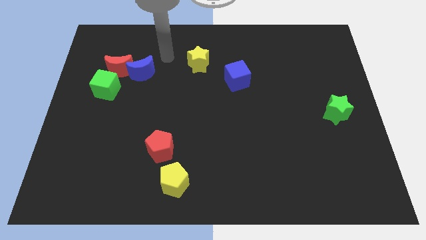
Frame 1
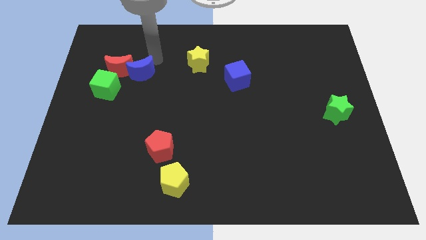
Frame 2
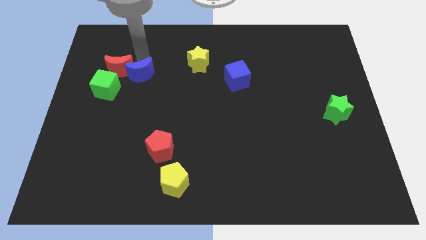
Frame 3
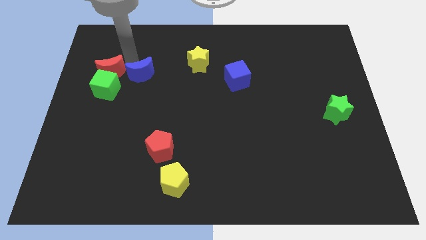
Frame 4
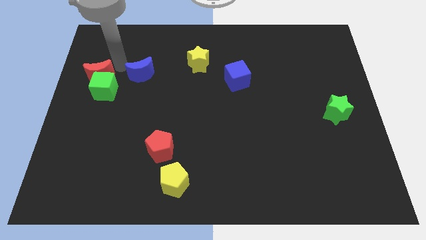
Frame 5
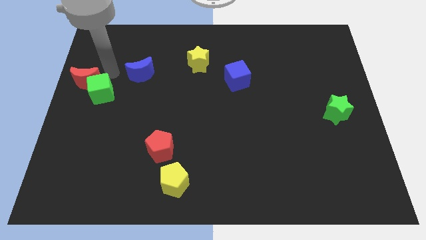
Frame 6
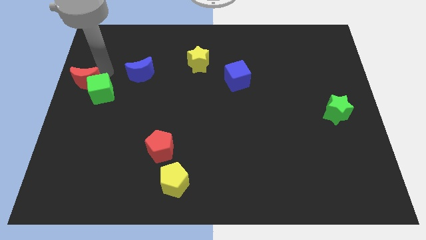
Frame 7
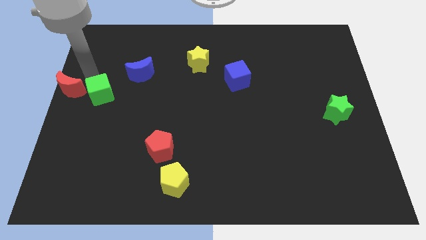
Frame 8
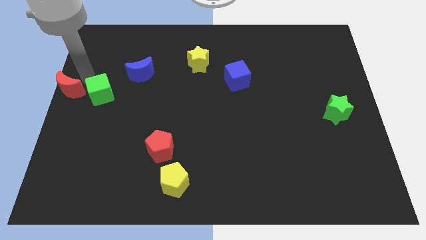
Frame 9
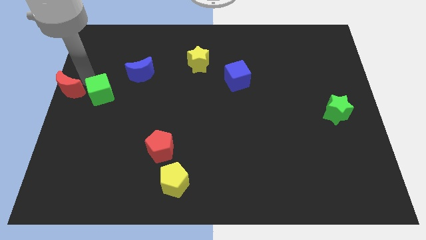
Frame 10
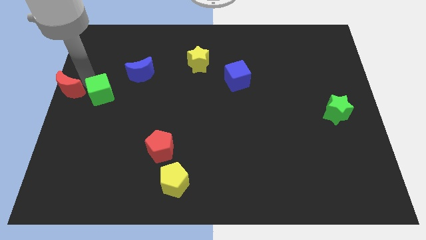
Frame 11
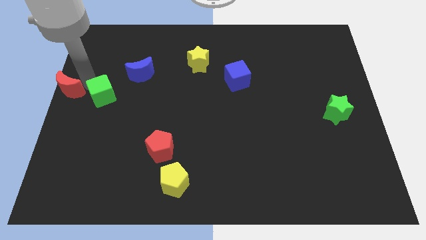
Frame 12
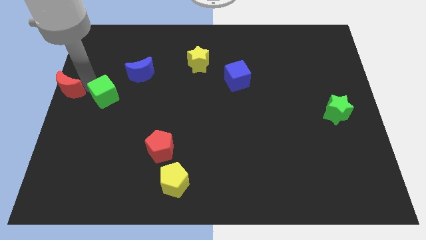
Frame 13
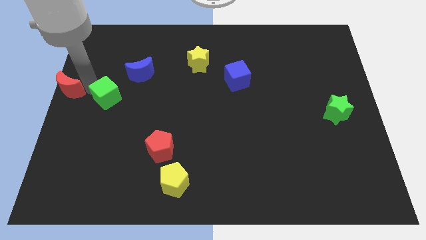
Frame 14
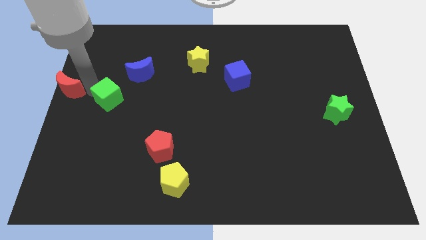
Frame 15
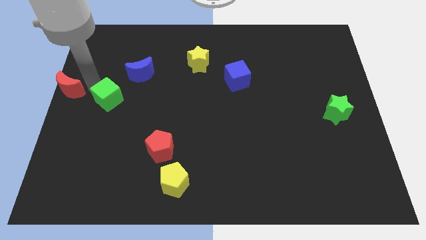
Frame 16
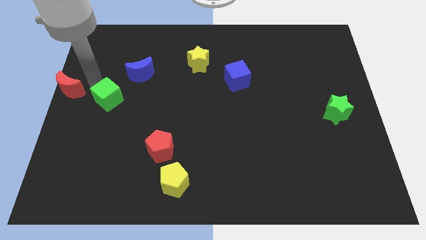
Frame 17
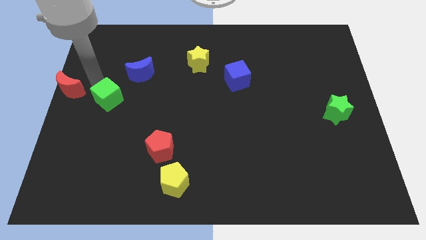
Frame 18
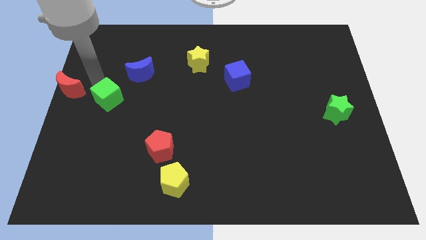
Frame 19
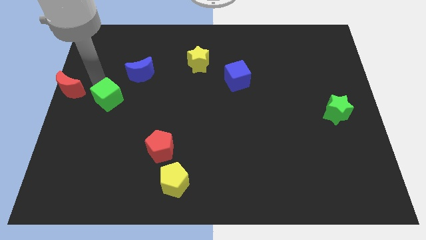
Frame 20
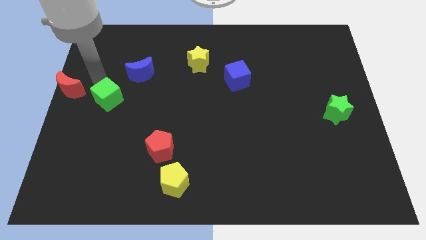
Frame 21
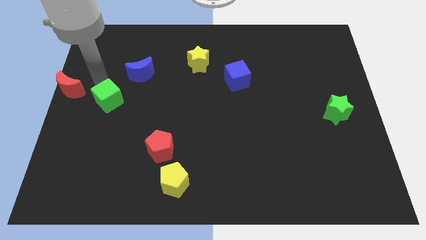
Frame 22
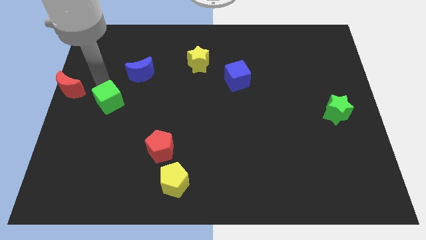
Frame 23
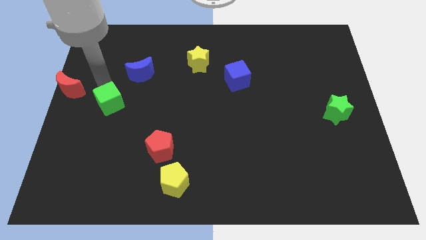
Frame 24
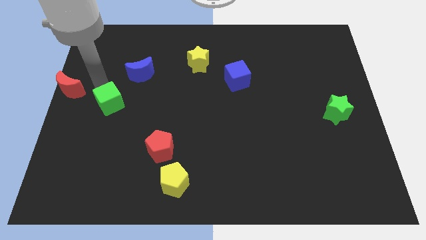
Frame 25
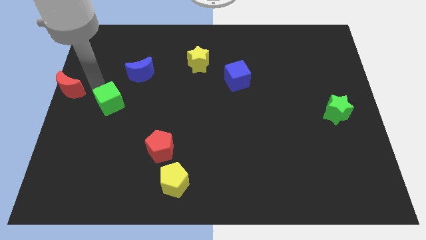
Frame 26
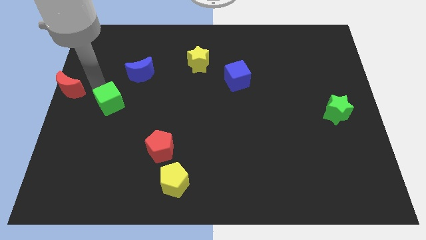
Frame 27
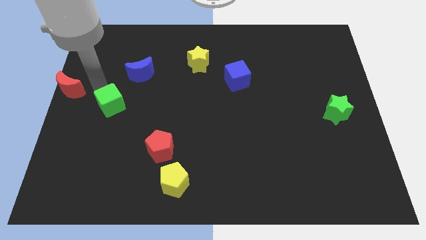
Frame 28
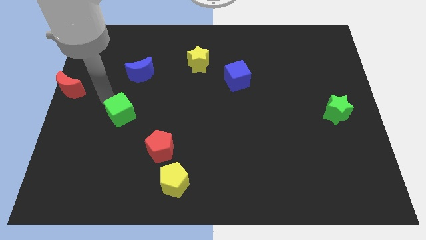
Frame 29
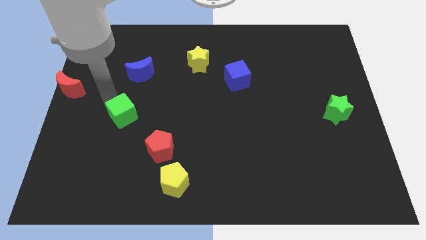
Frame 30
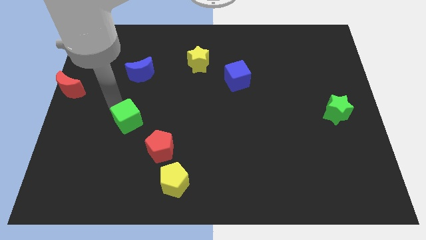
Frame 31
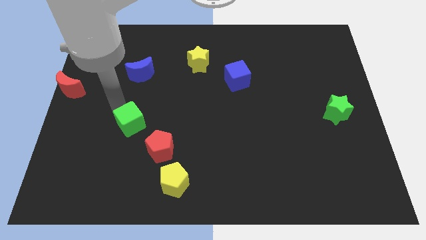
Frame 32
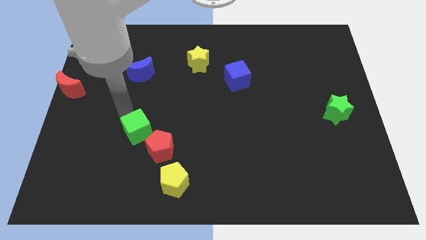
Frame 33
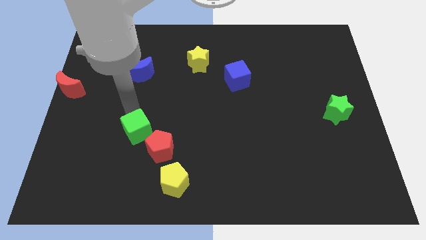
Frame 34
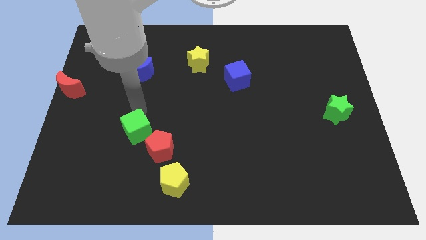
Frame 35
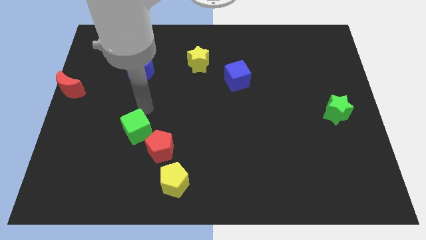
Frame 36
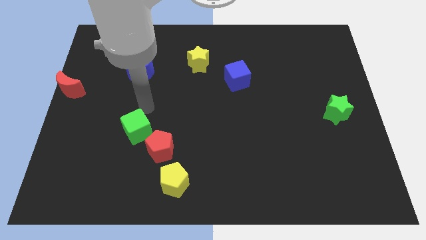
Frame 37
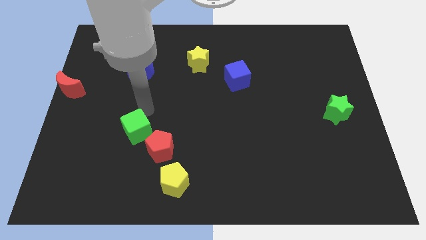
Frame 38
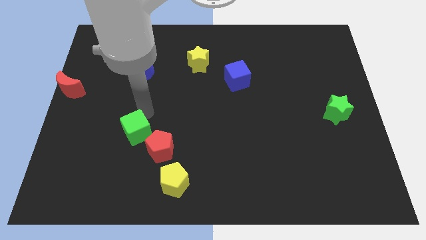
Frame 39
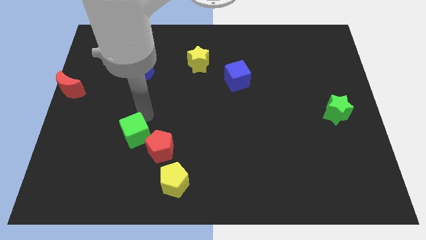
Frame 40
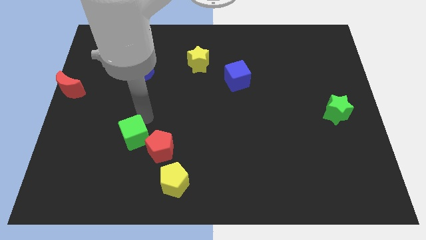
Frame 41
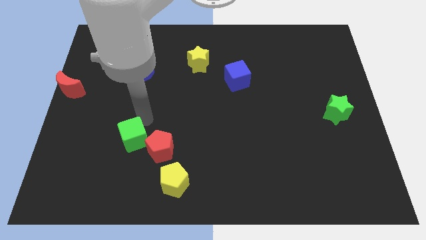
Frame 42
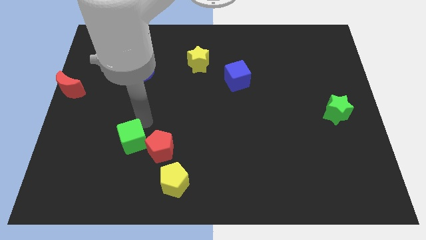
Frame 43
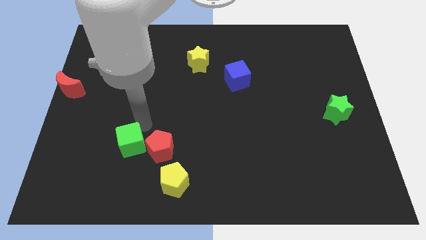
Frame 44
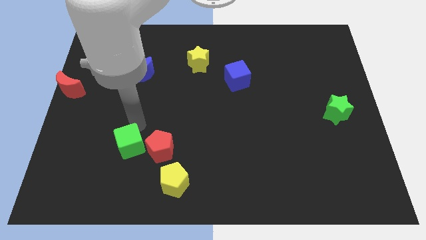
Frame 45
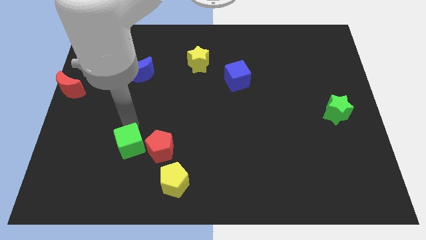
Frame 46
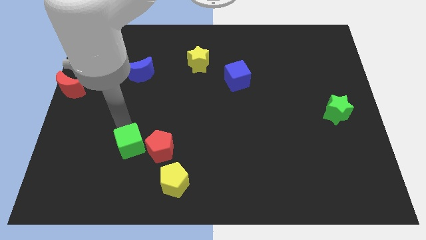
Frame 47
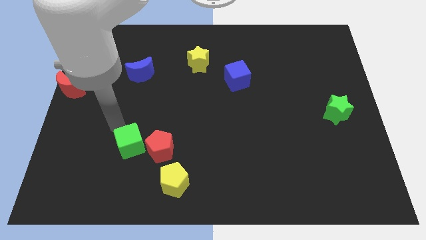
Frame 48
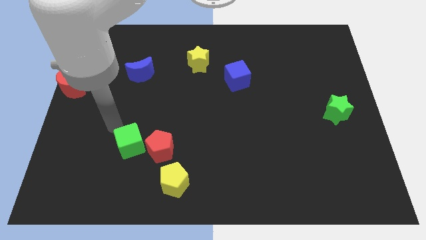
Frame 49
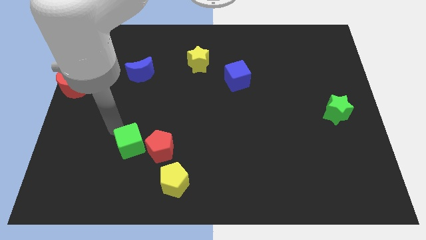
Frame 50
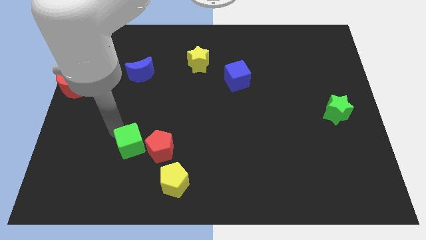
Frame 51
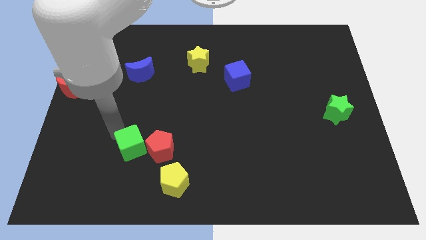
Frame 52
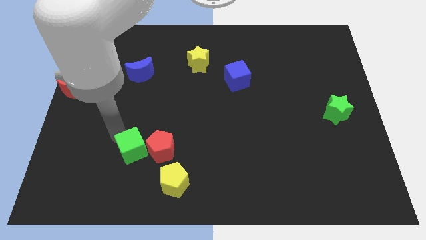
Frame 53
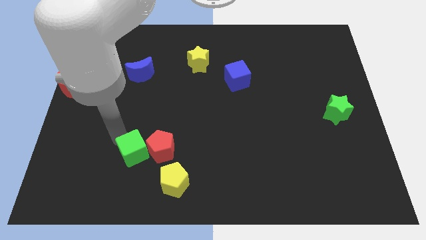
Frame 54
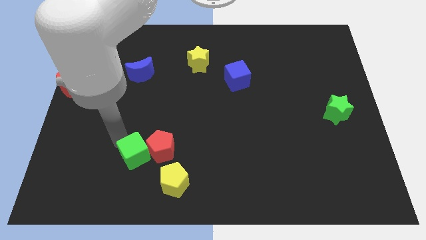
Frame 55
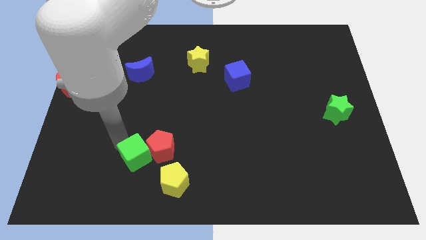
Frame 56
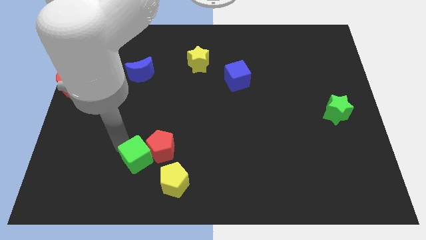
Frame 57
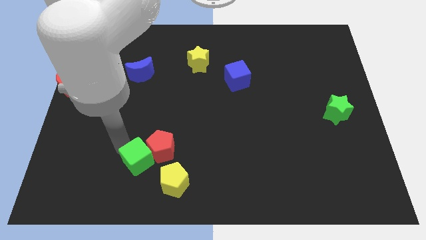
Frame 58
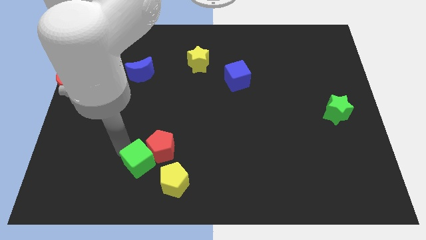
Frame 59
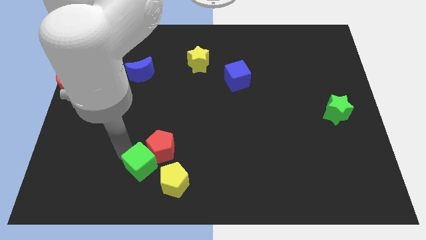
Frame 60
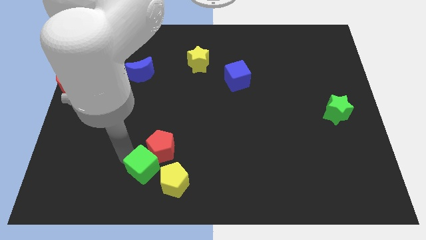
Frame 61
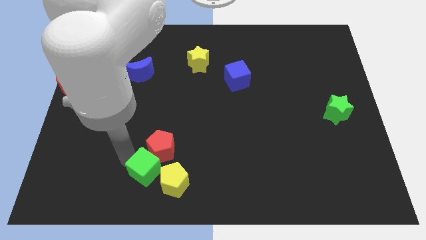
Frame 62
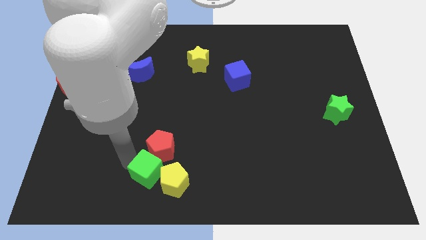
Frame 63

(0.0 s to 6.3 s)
move the green cube close to the yellow pentagon

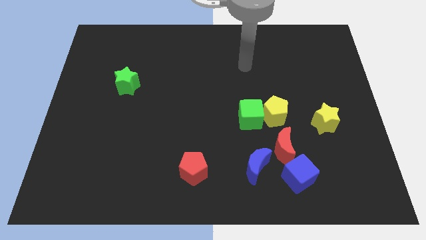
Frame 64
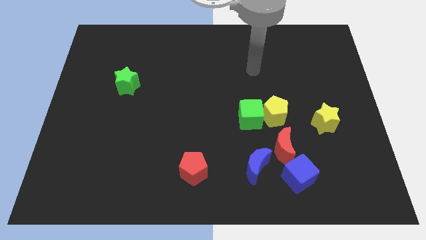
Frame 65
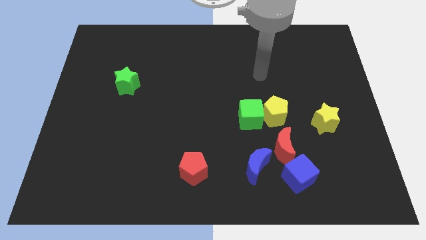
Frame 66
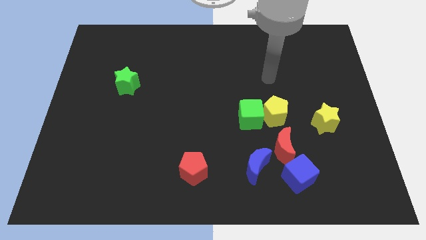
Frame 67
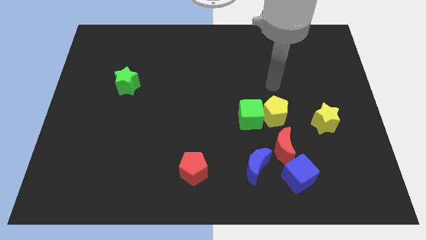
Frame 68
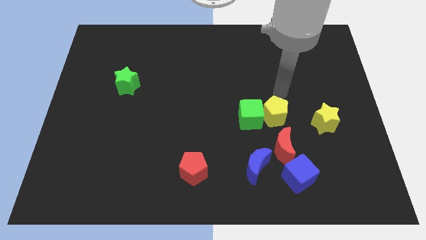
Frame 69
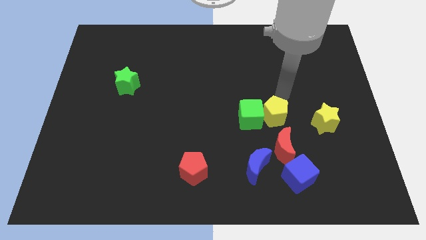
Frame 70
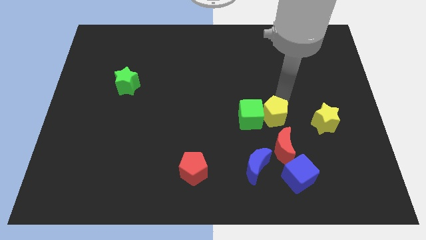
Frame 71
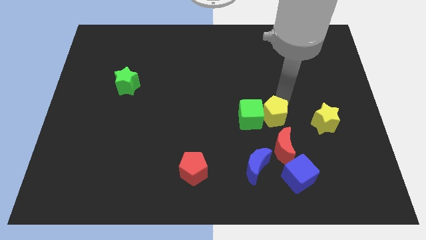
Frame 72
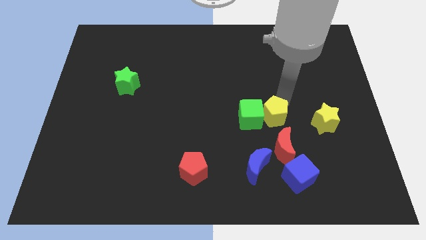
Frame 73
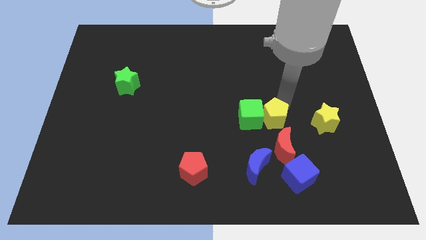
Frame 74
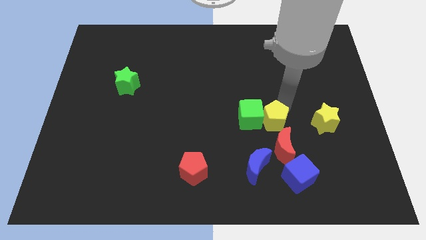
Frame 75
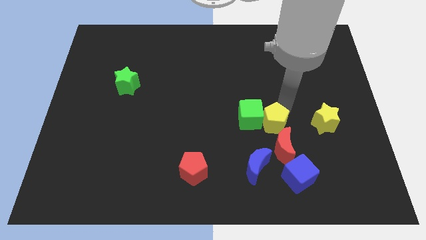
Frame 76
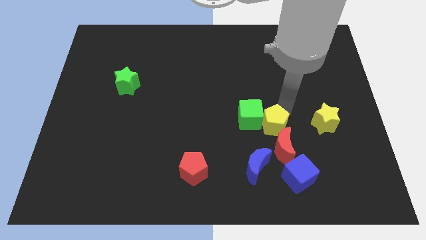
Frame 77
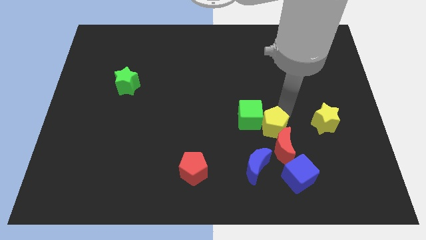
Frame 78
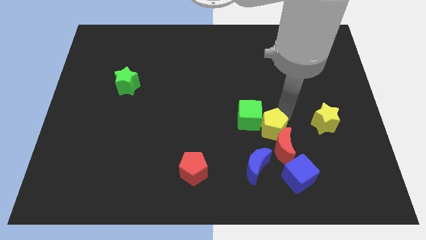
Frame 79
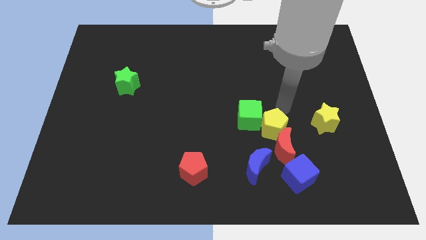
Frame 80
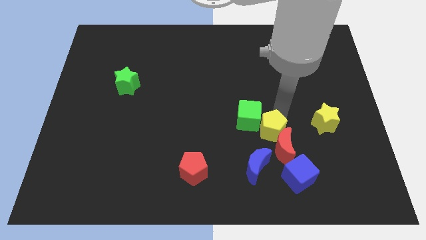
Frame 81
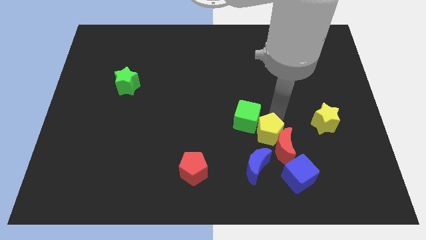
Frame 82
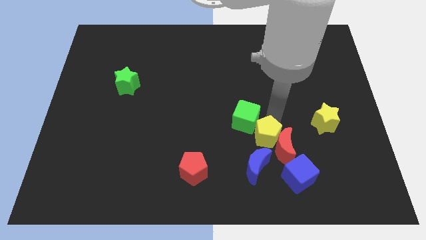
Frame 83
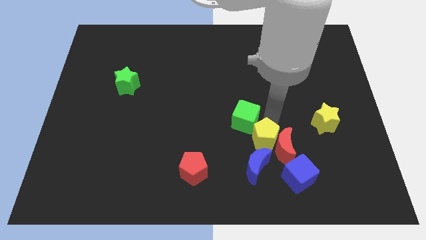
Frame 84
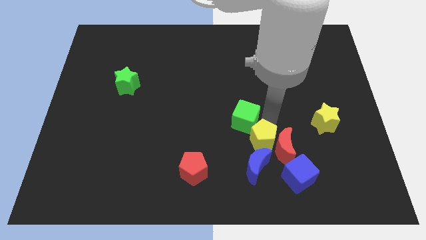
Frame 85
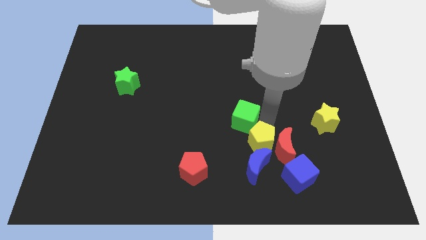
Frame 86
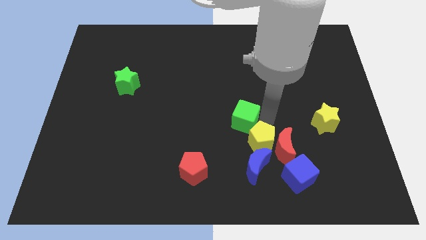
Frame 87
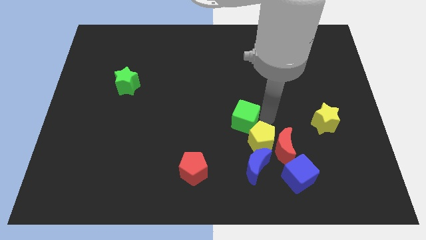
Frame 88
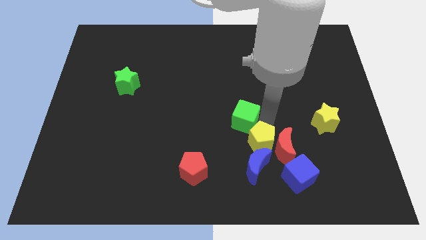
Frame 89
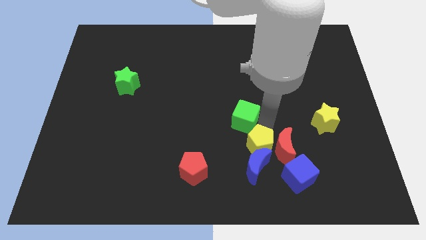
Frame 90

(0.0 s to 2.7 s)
put the yellow pentagon next to the blue moon
